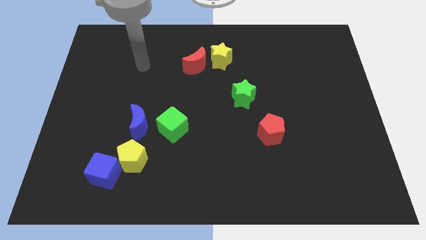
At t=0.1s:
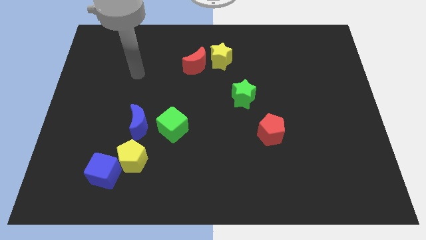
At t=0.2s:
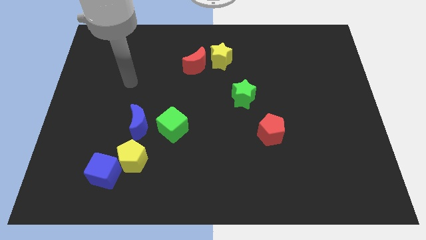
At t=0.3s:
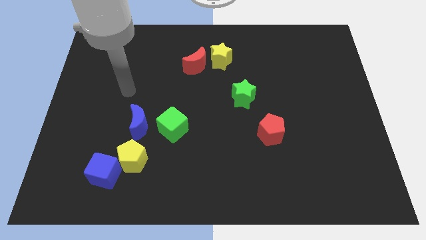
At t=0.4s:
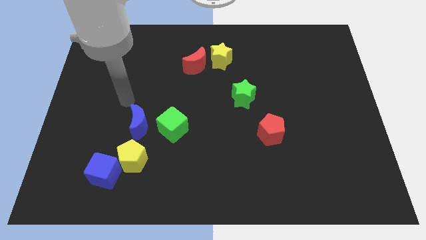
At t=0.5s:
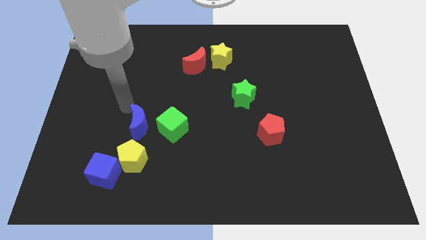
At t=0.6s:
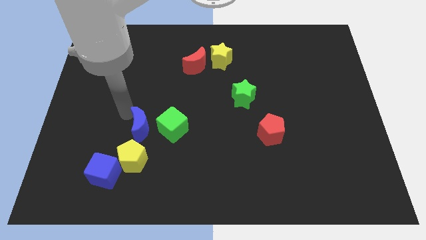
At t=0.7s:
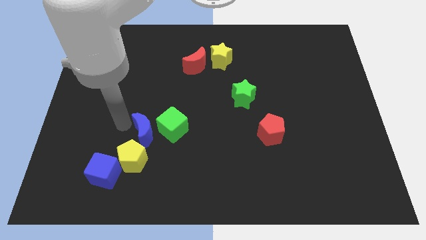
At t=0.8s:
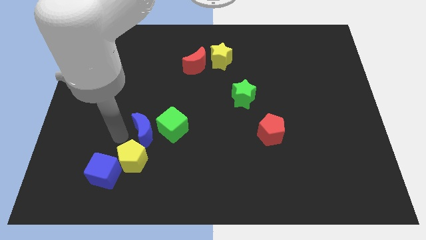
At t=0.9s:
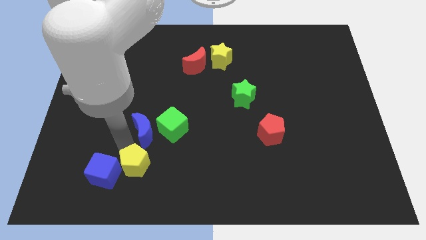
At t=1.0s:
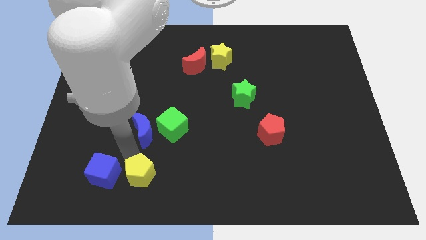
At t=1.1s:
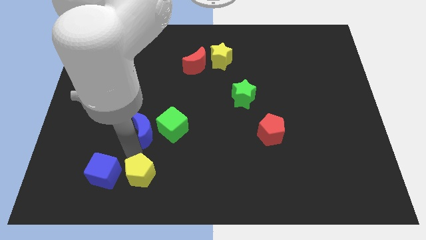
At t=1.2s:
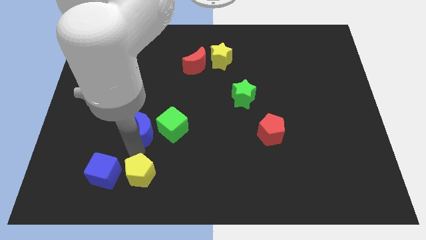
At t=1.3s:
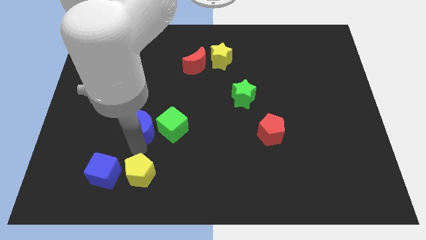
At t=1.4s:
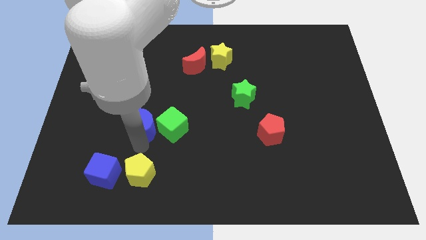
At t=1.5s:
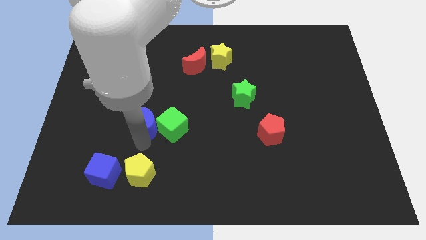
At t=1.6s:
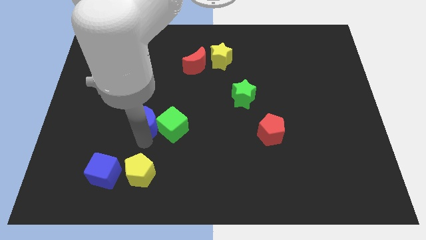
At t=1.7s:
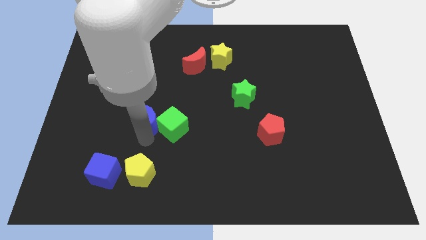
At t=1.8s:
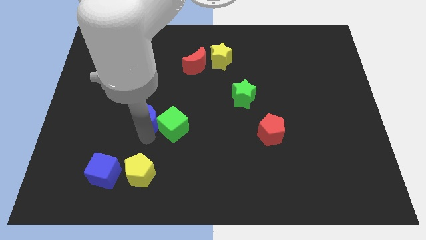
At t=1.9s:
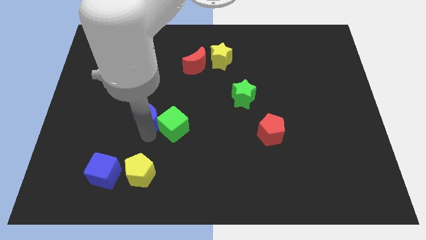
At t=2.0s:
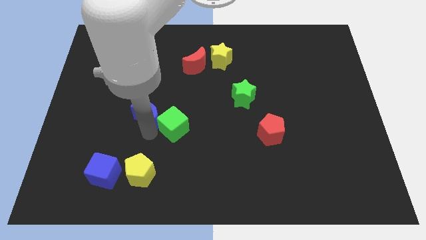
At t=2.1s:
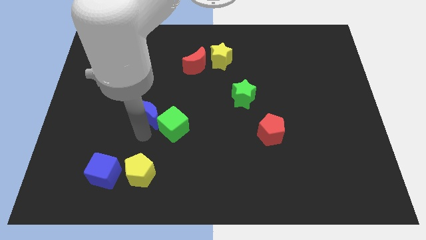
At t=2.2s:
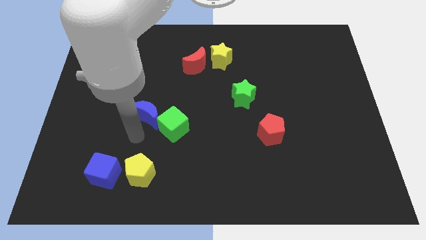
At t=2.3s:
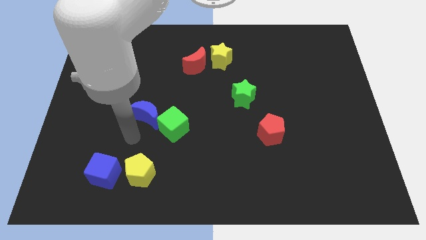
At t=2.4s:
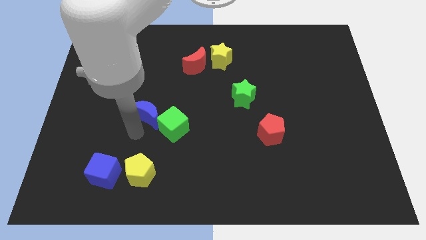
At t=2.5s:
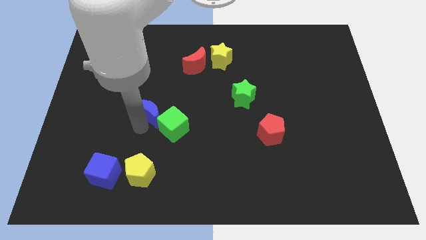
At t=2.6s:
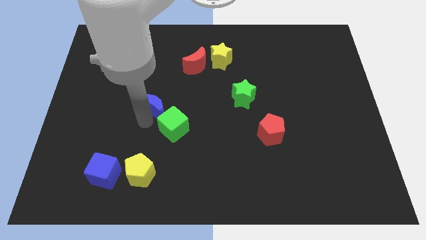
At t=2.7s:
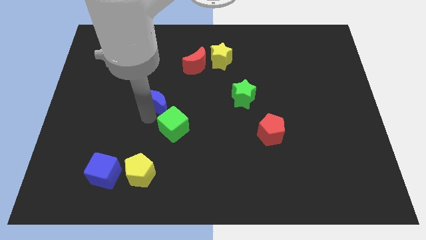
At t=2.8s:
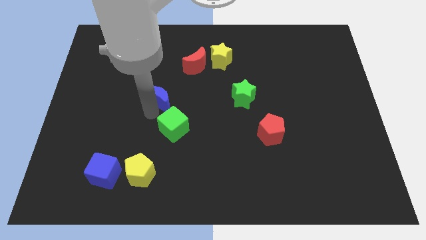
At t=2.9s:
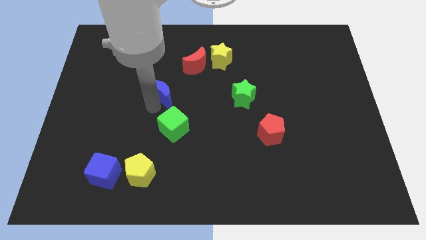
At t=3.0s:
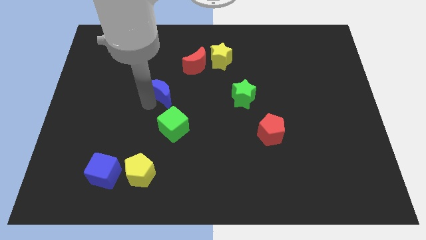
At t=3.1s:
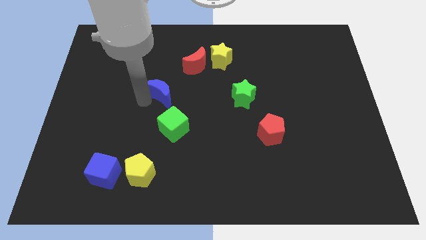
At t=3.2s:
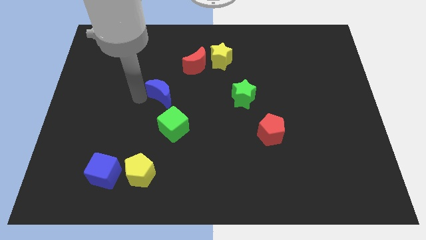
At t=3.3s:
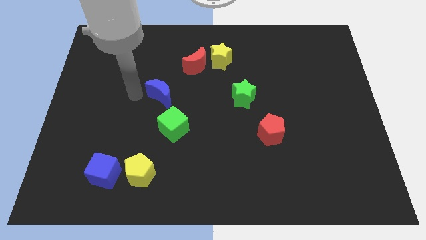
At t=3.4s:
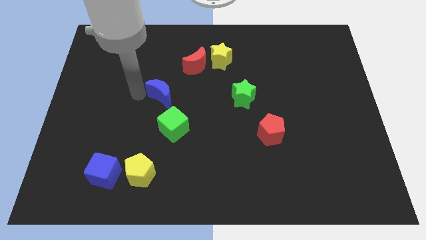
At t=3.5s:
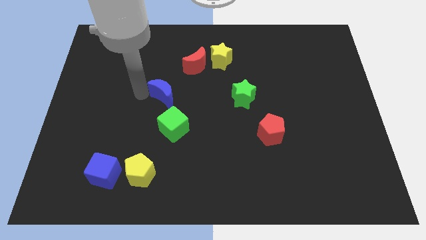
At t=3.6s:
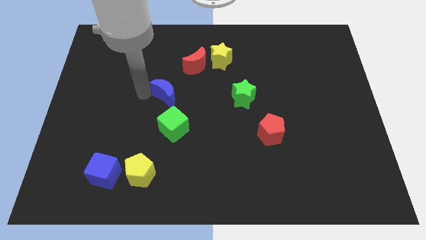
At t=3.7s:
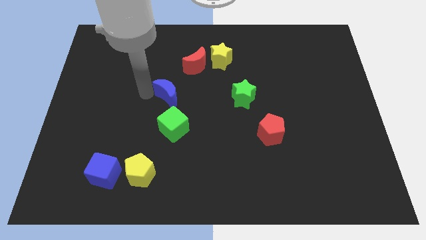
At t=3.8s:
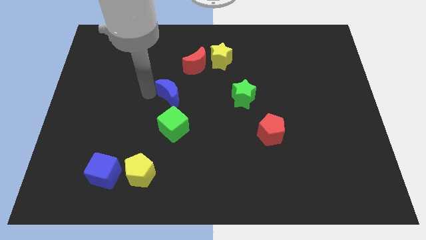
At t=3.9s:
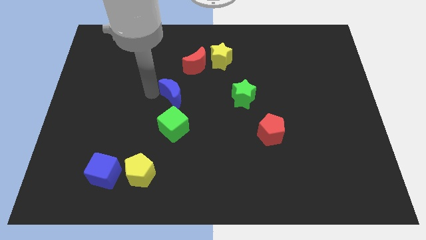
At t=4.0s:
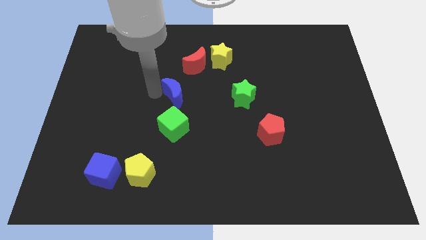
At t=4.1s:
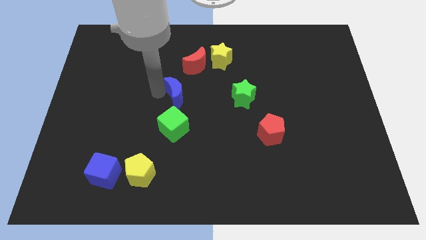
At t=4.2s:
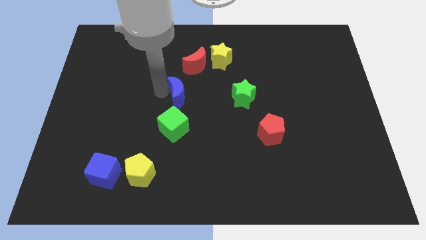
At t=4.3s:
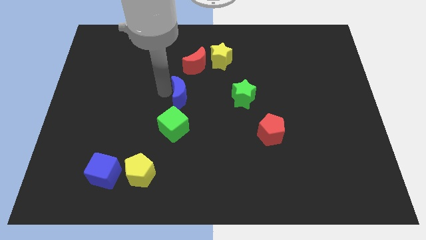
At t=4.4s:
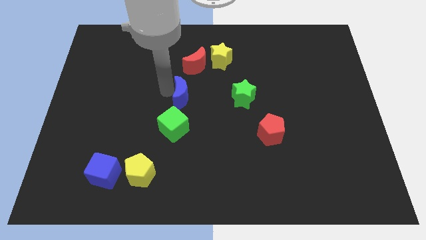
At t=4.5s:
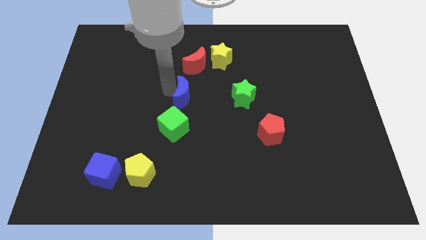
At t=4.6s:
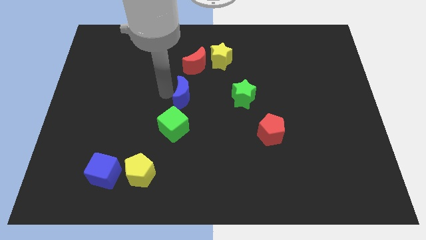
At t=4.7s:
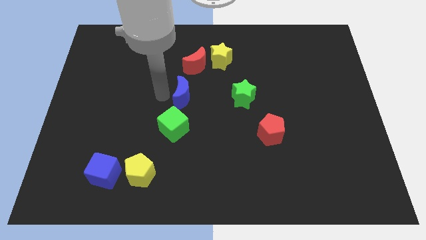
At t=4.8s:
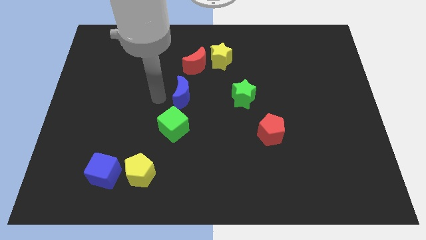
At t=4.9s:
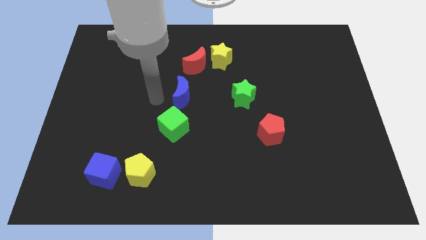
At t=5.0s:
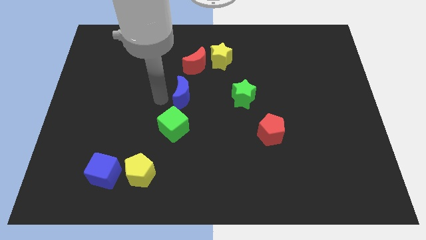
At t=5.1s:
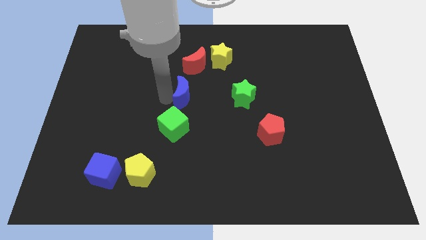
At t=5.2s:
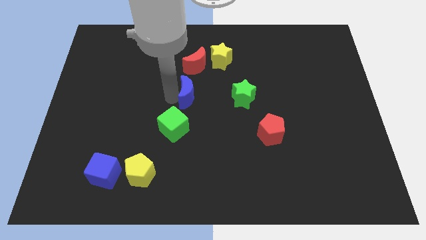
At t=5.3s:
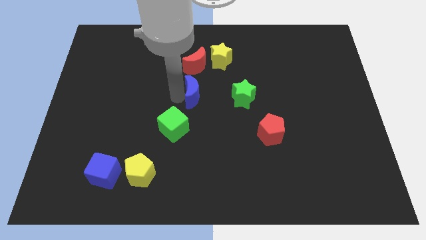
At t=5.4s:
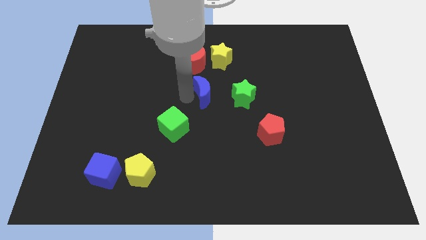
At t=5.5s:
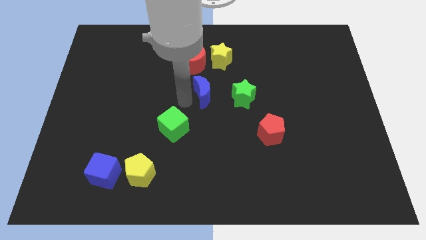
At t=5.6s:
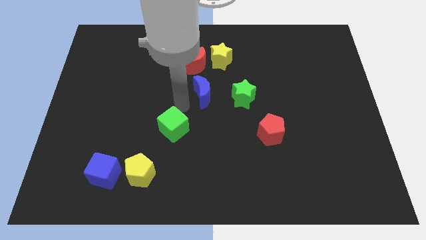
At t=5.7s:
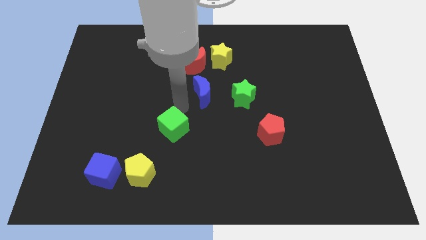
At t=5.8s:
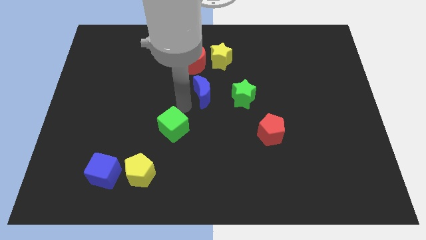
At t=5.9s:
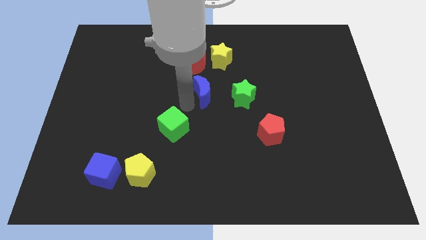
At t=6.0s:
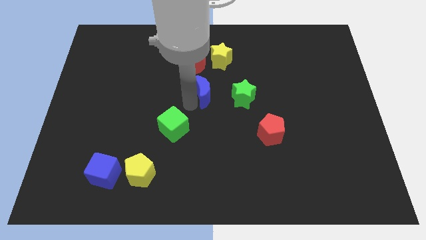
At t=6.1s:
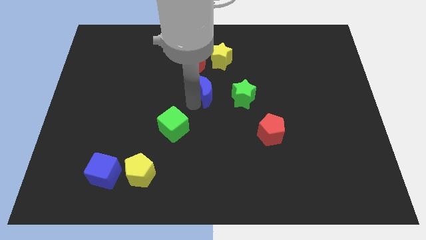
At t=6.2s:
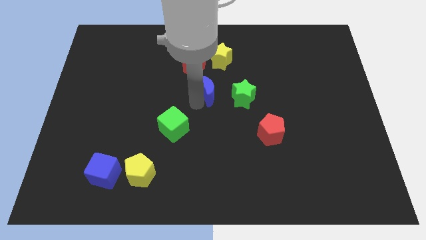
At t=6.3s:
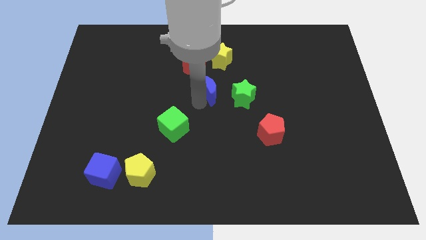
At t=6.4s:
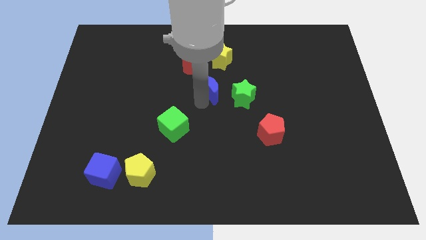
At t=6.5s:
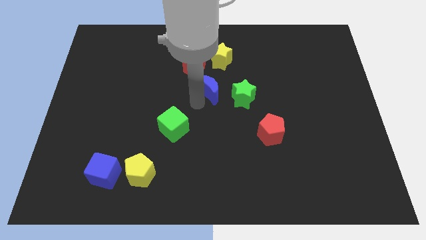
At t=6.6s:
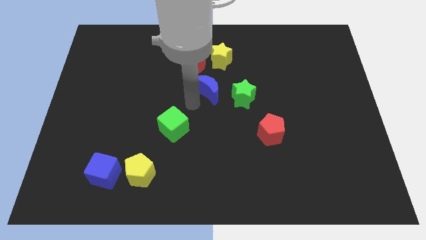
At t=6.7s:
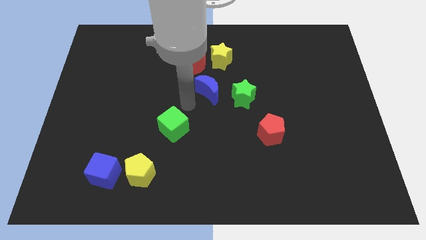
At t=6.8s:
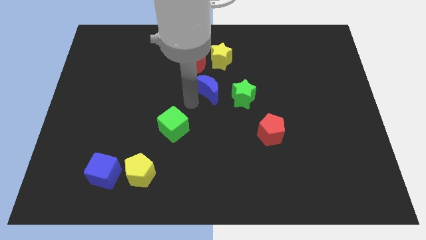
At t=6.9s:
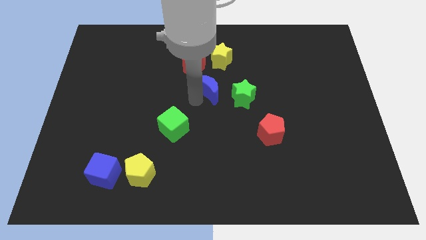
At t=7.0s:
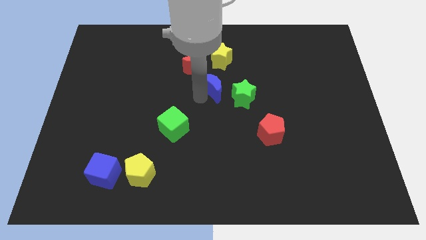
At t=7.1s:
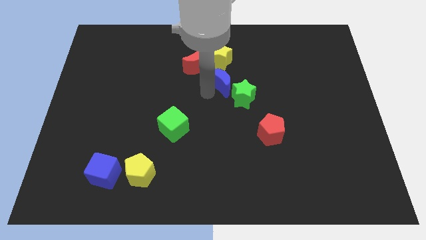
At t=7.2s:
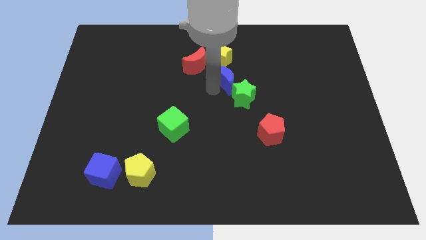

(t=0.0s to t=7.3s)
move the blue moon diagonally down and to the right of the yellow star
